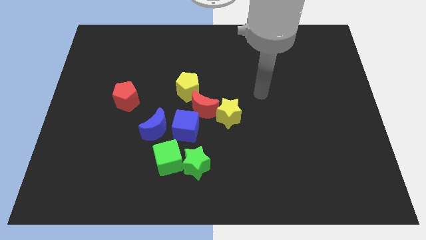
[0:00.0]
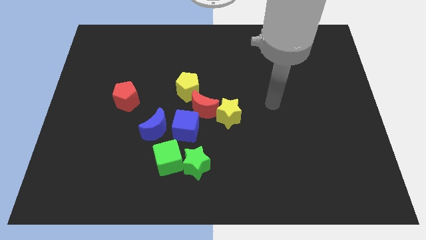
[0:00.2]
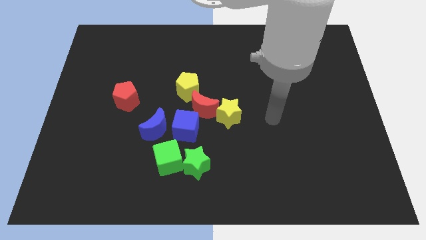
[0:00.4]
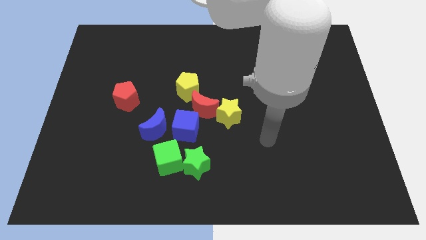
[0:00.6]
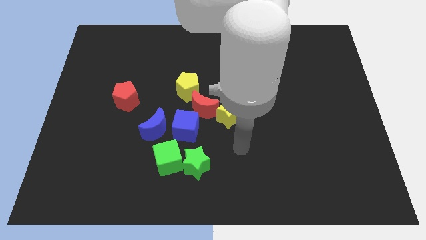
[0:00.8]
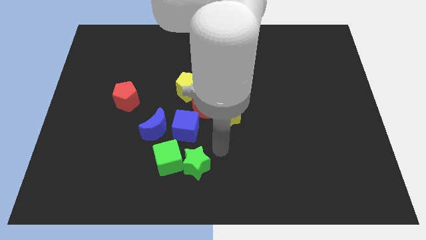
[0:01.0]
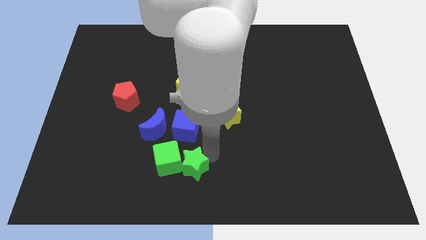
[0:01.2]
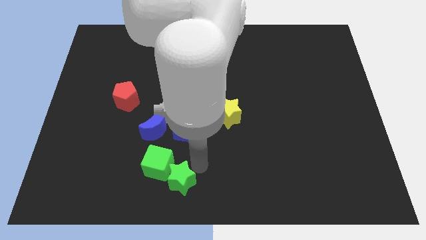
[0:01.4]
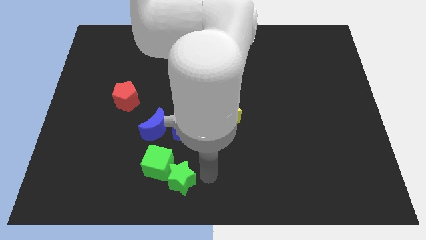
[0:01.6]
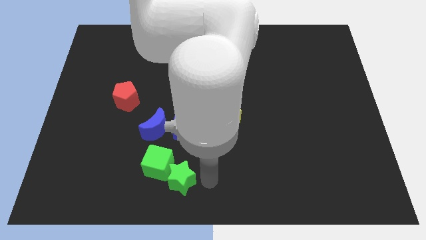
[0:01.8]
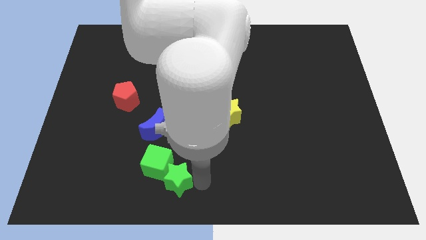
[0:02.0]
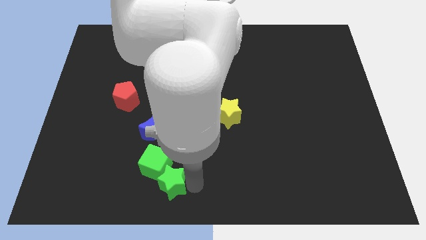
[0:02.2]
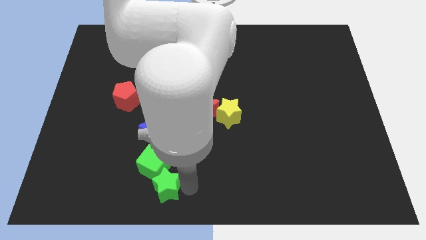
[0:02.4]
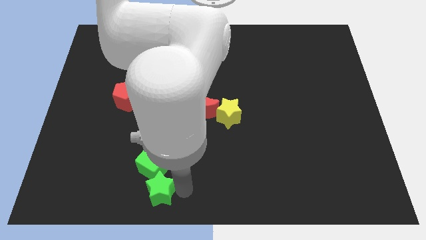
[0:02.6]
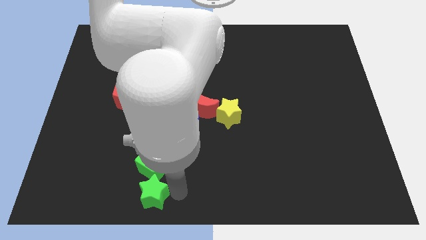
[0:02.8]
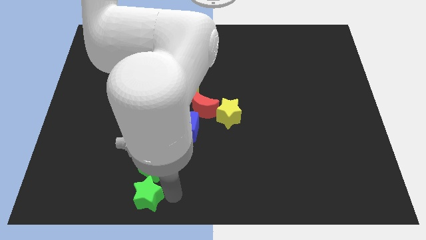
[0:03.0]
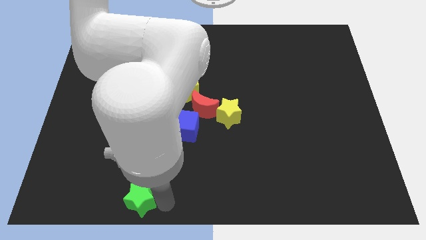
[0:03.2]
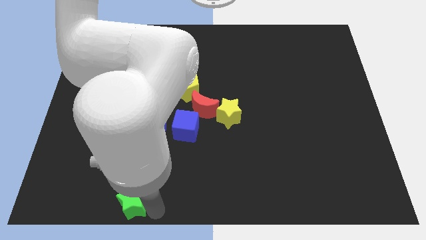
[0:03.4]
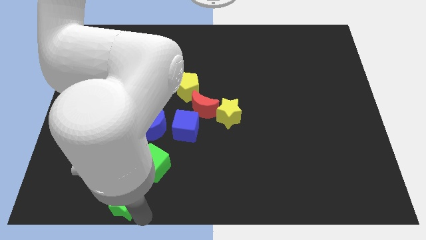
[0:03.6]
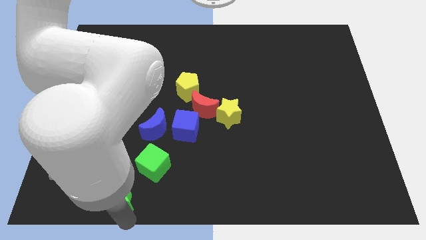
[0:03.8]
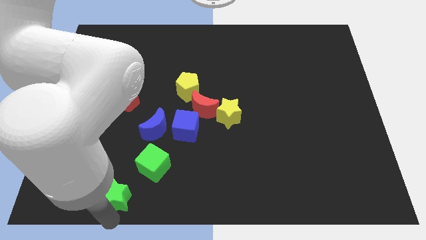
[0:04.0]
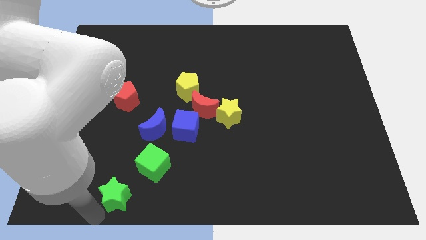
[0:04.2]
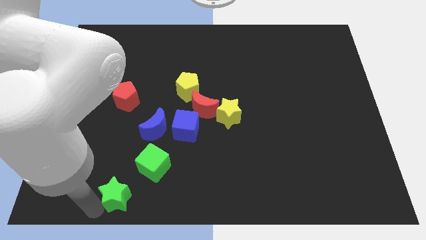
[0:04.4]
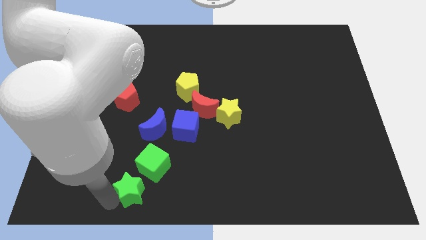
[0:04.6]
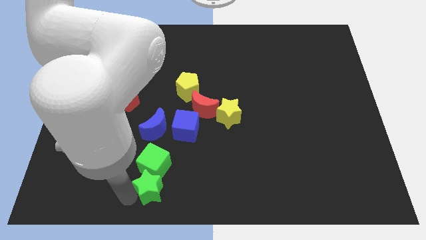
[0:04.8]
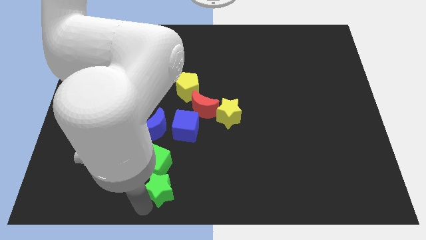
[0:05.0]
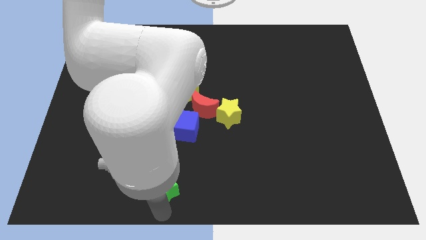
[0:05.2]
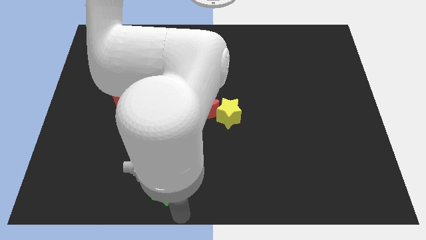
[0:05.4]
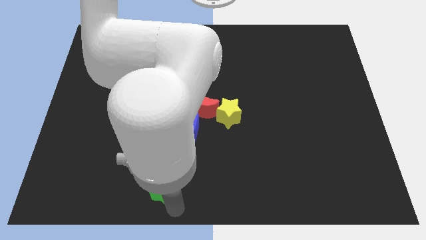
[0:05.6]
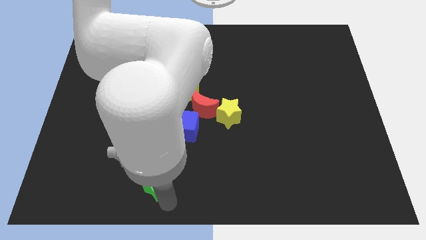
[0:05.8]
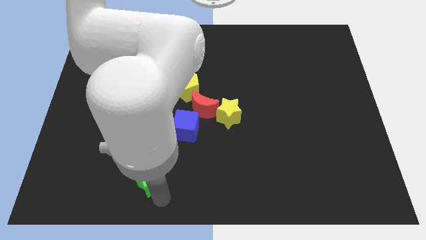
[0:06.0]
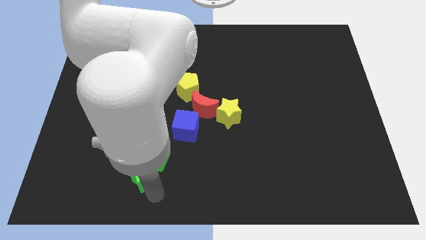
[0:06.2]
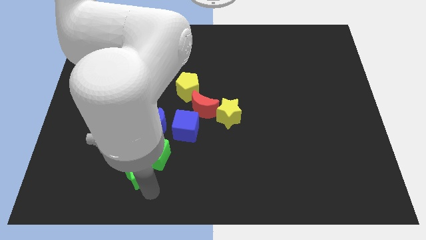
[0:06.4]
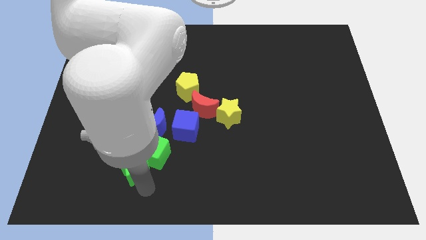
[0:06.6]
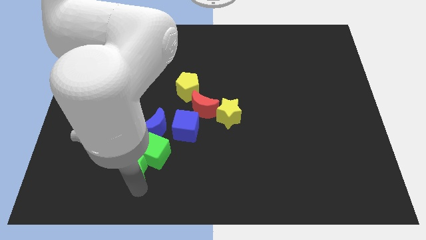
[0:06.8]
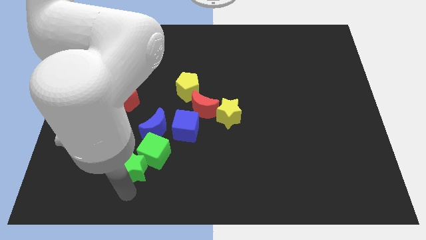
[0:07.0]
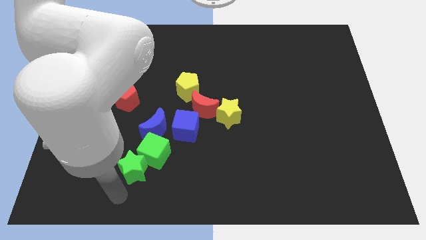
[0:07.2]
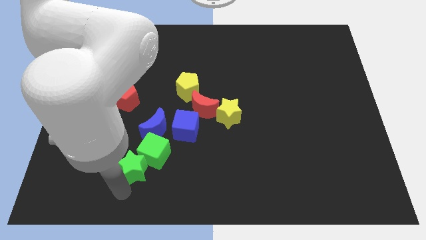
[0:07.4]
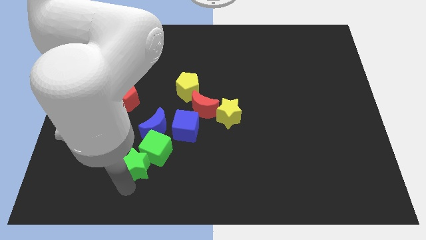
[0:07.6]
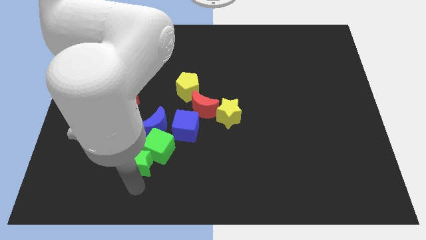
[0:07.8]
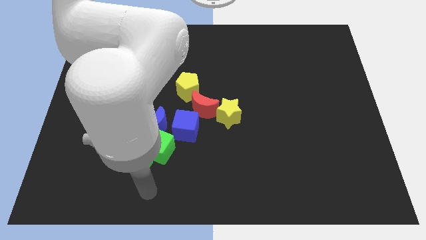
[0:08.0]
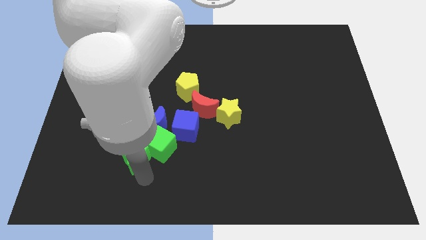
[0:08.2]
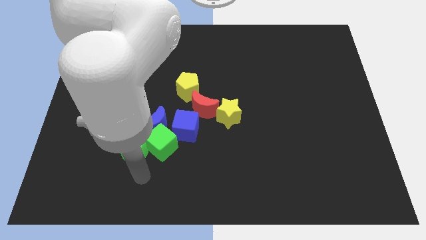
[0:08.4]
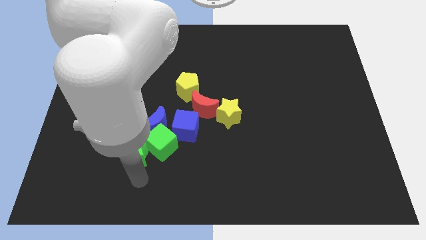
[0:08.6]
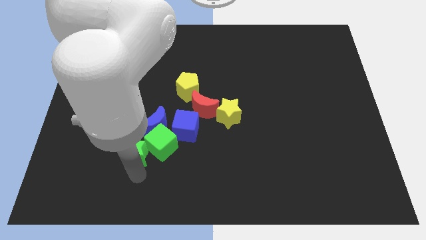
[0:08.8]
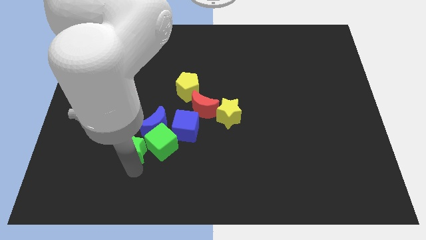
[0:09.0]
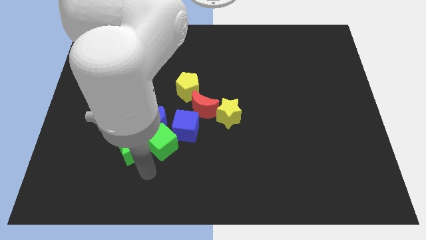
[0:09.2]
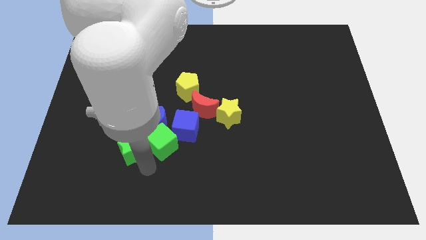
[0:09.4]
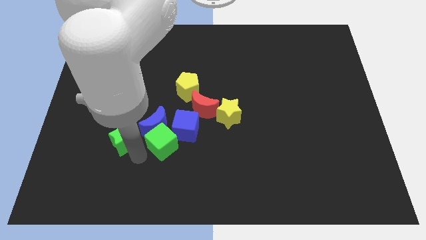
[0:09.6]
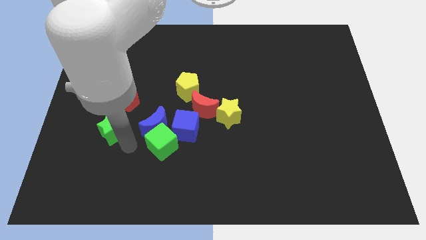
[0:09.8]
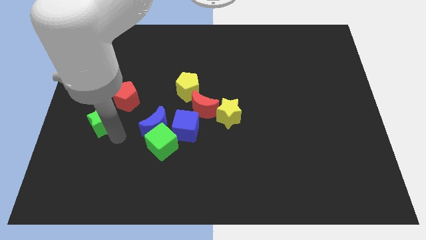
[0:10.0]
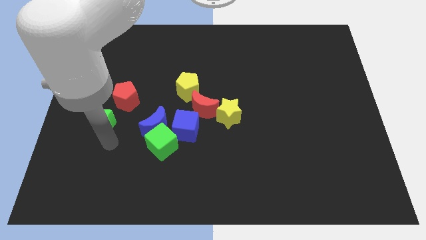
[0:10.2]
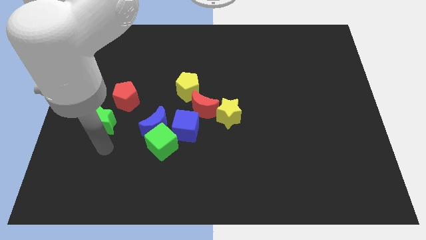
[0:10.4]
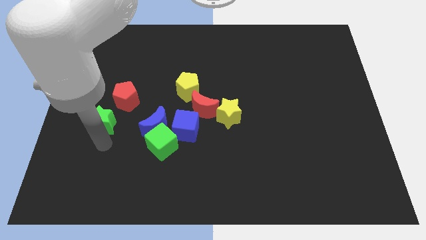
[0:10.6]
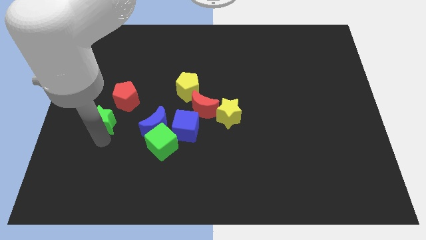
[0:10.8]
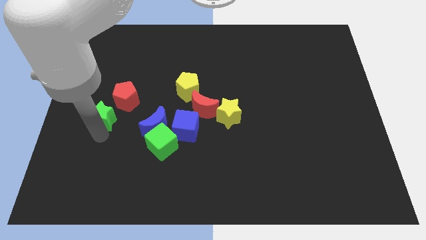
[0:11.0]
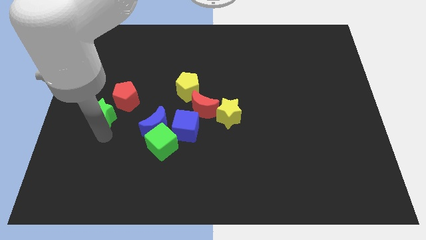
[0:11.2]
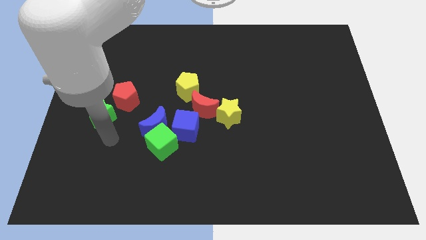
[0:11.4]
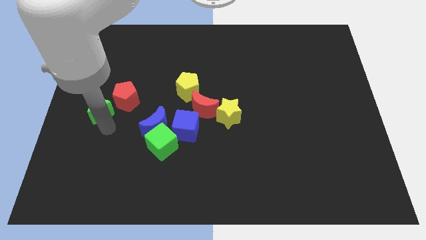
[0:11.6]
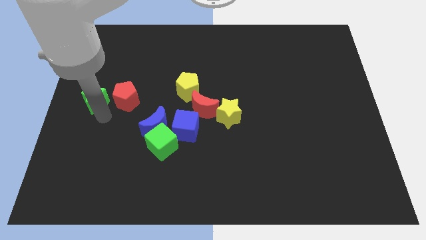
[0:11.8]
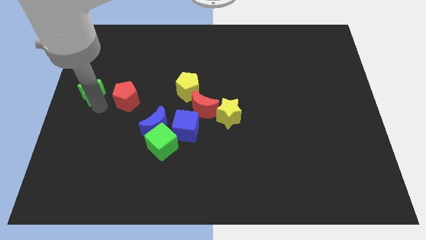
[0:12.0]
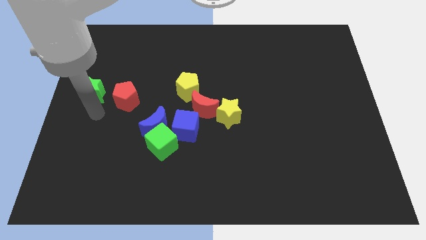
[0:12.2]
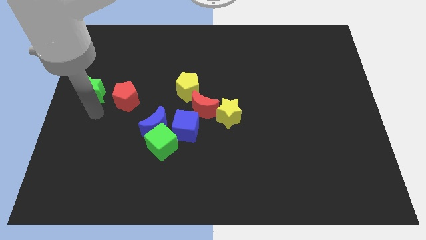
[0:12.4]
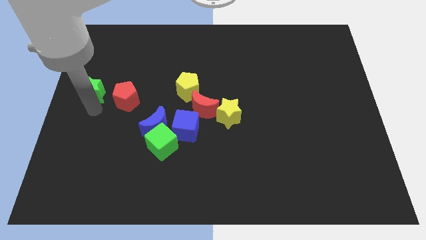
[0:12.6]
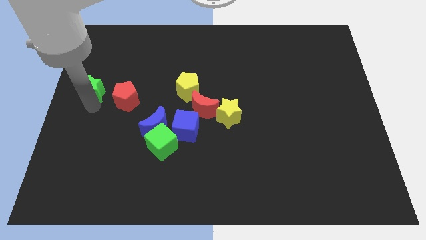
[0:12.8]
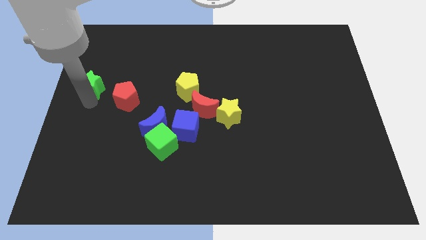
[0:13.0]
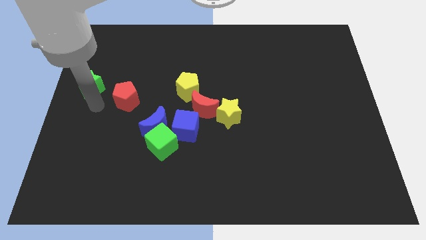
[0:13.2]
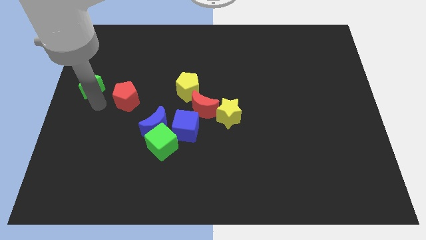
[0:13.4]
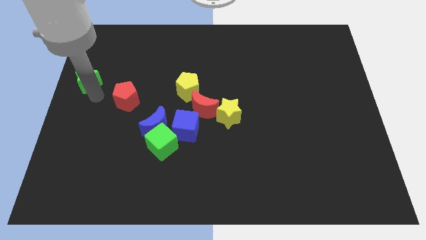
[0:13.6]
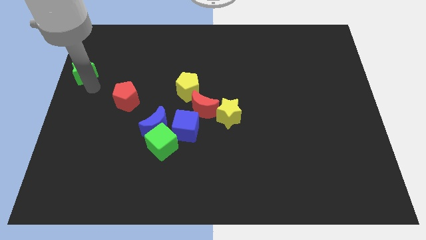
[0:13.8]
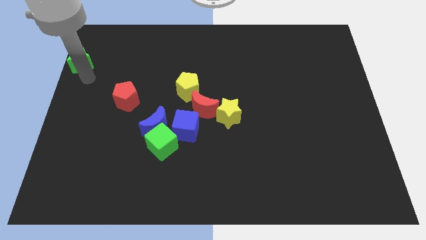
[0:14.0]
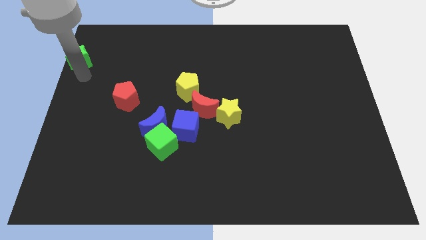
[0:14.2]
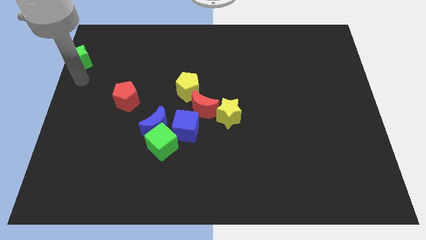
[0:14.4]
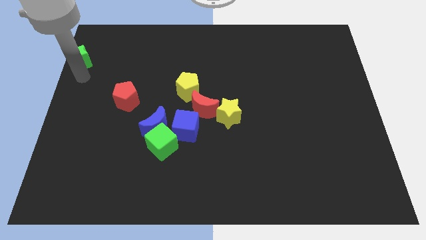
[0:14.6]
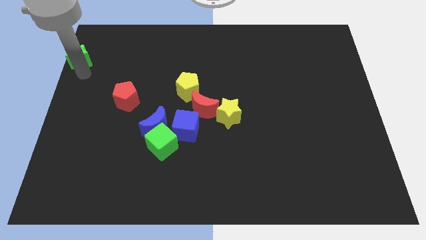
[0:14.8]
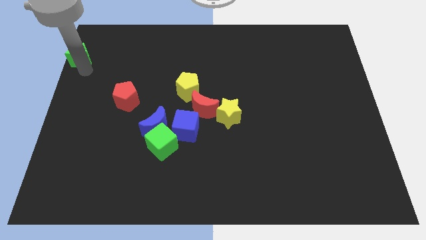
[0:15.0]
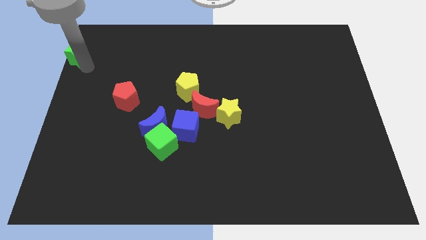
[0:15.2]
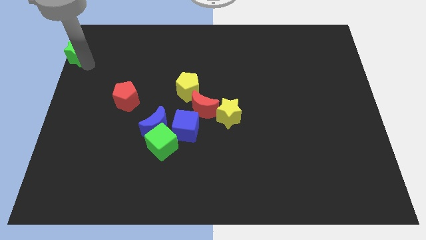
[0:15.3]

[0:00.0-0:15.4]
slide the green star to the top left of the board

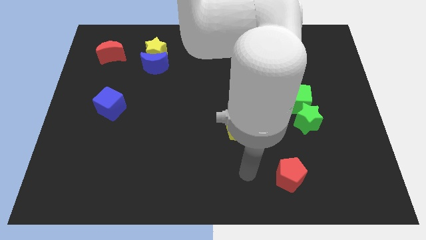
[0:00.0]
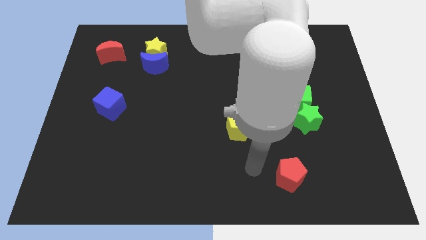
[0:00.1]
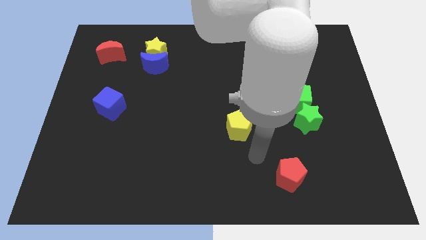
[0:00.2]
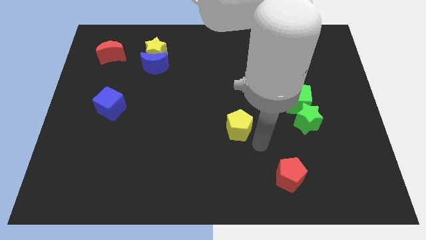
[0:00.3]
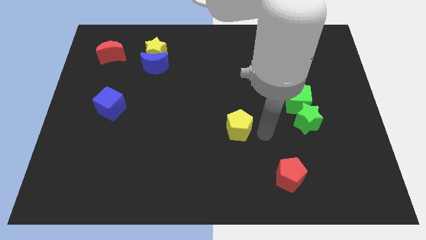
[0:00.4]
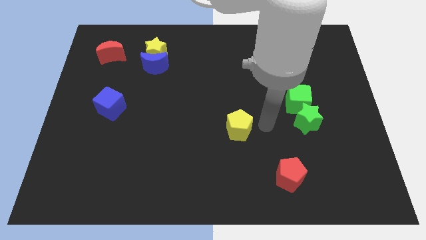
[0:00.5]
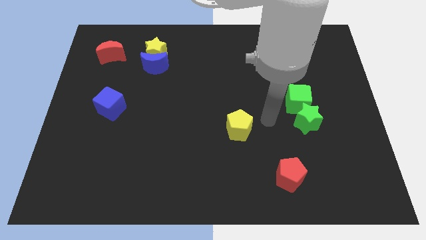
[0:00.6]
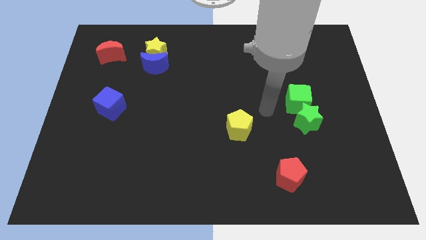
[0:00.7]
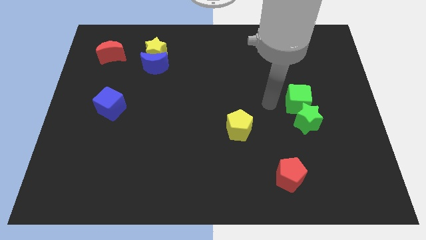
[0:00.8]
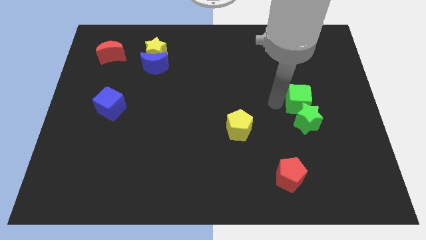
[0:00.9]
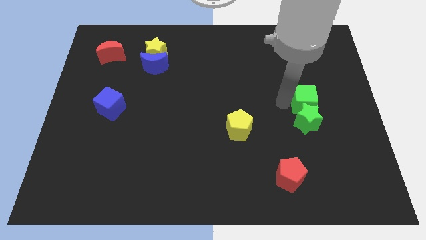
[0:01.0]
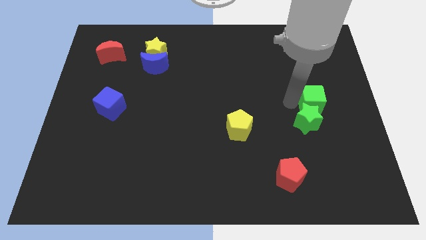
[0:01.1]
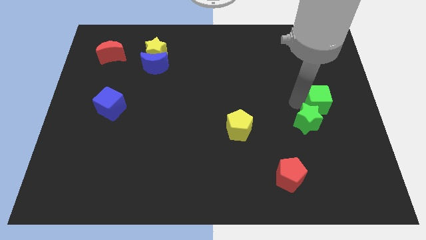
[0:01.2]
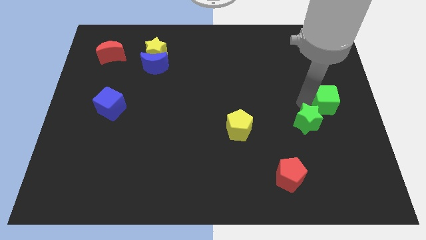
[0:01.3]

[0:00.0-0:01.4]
move the green cube to the right side of the board
